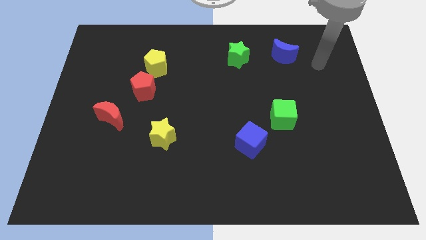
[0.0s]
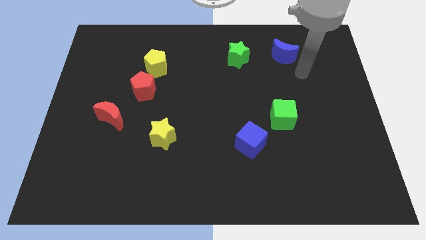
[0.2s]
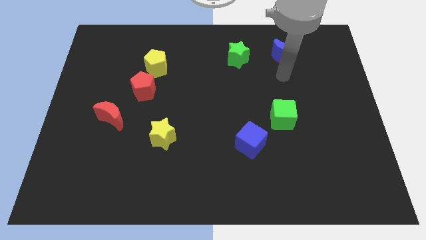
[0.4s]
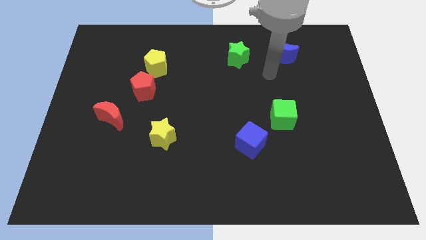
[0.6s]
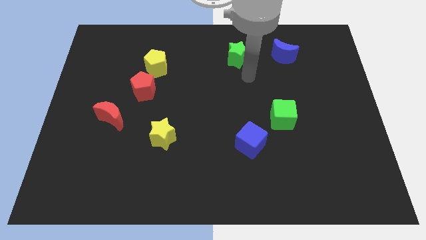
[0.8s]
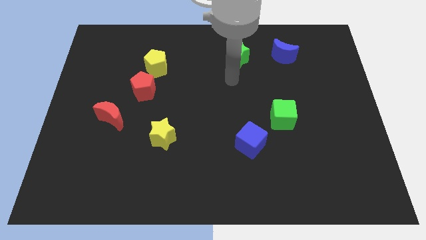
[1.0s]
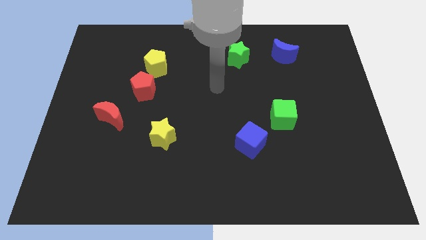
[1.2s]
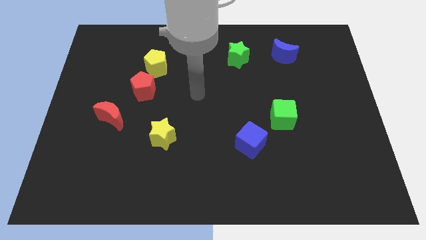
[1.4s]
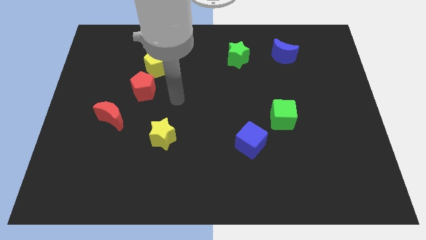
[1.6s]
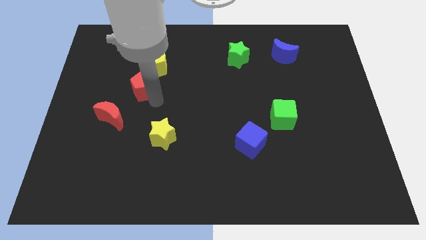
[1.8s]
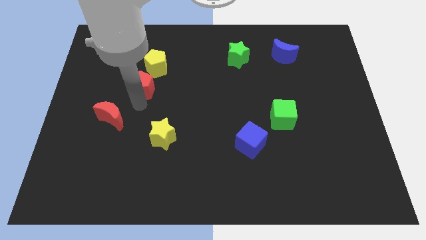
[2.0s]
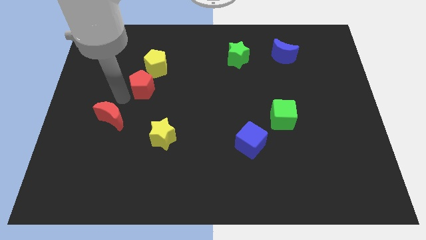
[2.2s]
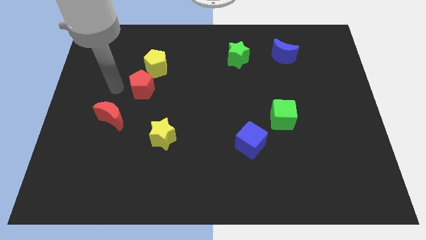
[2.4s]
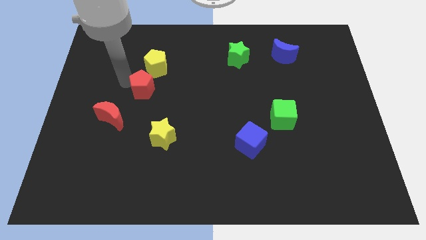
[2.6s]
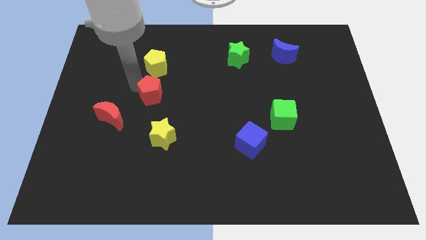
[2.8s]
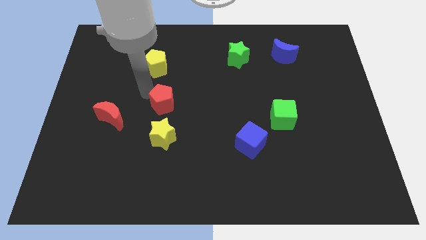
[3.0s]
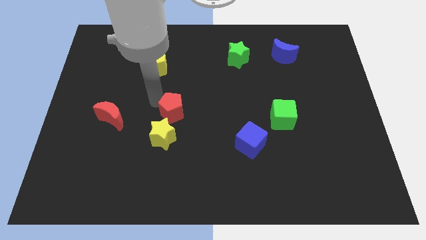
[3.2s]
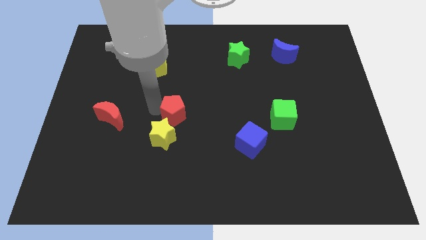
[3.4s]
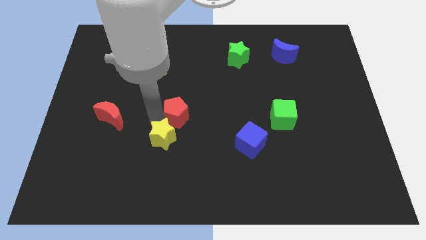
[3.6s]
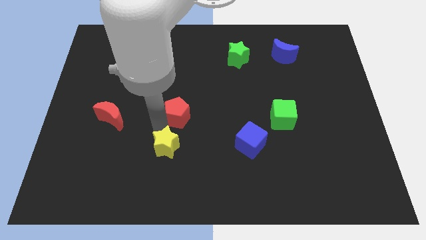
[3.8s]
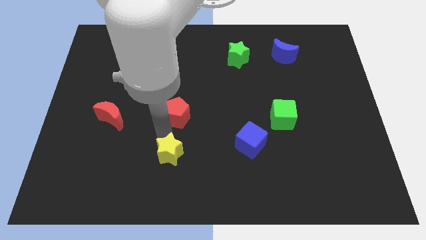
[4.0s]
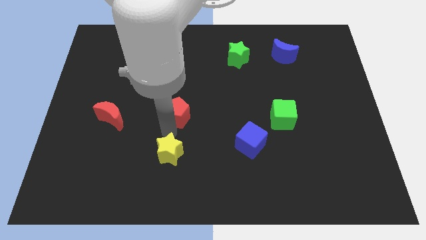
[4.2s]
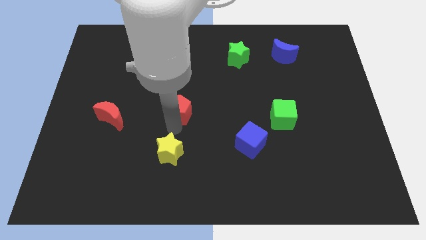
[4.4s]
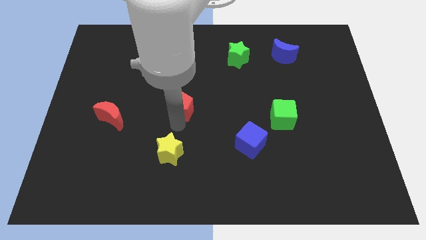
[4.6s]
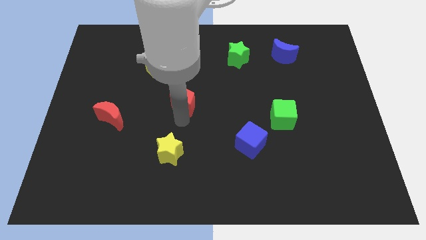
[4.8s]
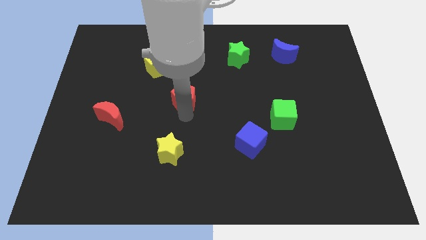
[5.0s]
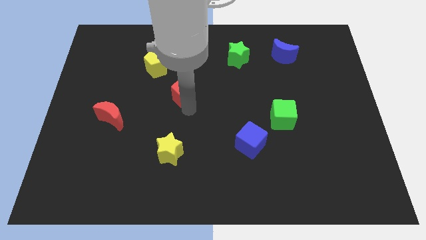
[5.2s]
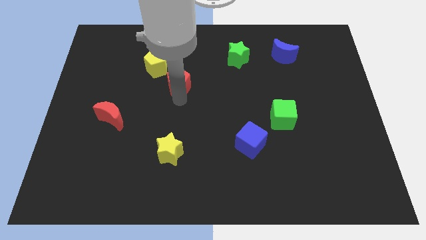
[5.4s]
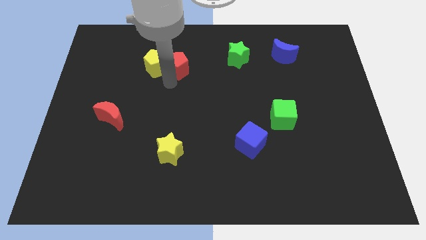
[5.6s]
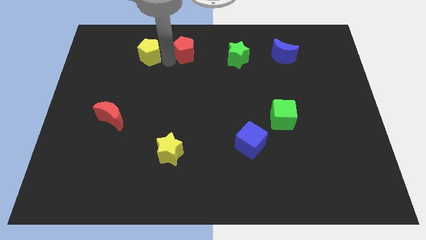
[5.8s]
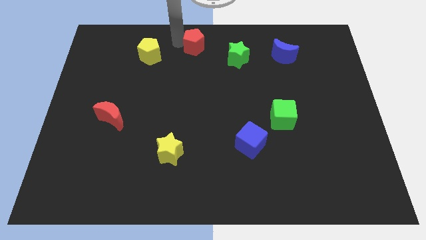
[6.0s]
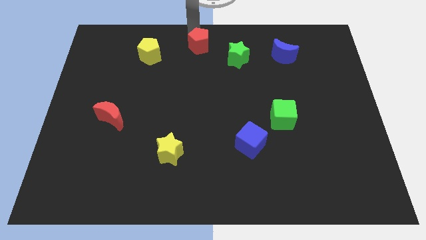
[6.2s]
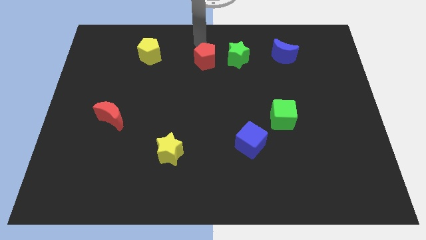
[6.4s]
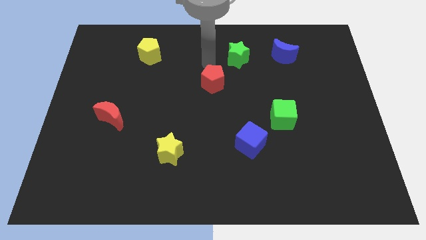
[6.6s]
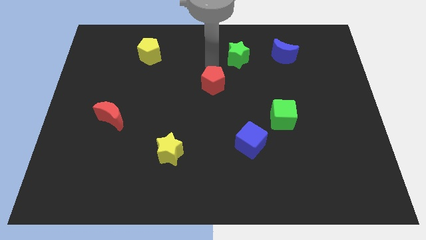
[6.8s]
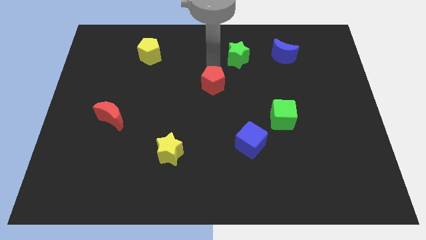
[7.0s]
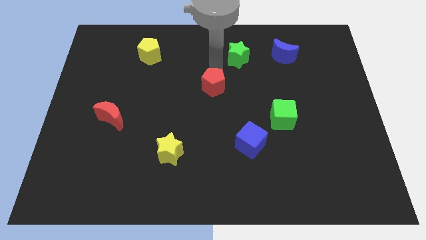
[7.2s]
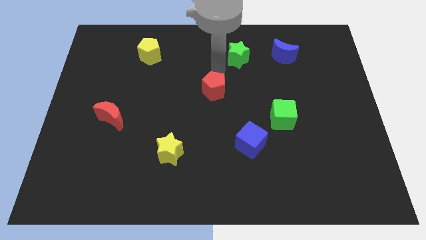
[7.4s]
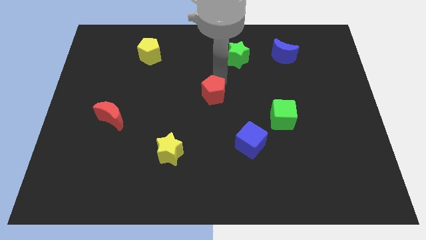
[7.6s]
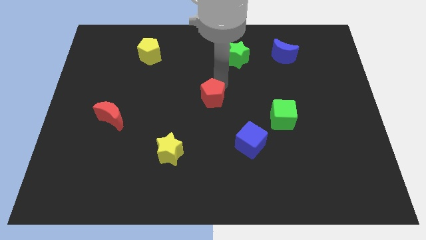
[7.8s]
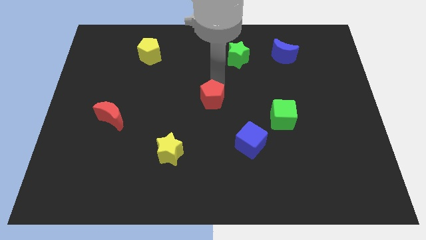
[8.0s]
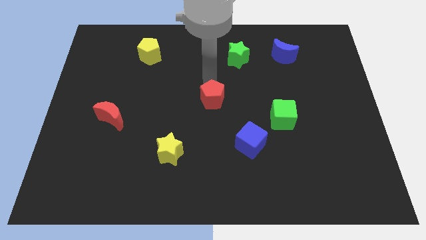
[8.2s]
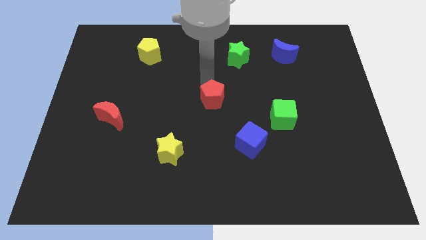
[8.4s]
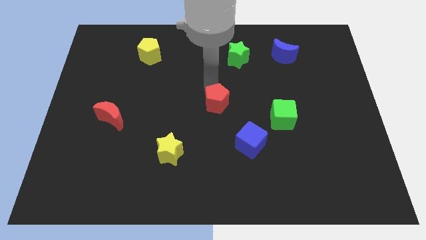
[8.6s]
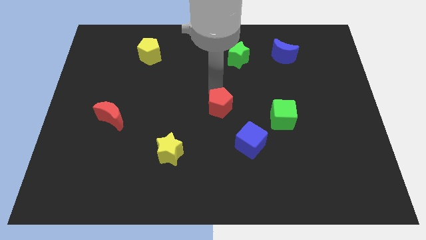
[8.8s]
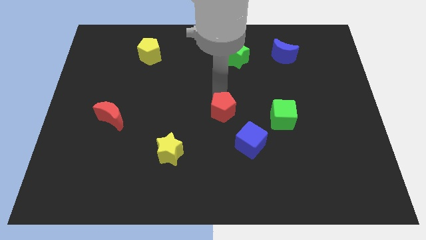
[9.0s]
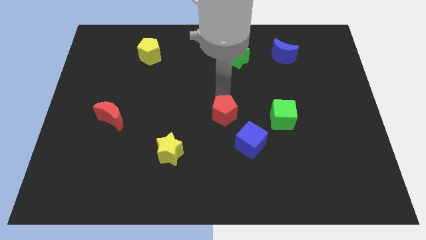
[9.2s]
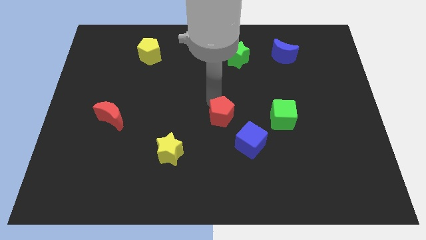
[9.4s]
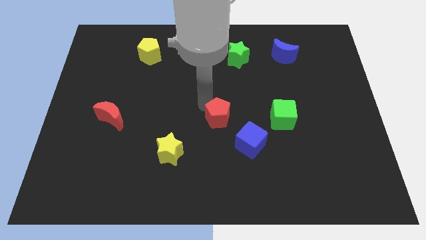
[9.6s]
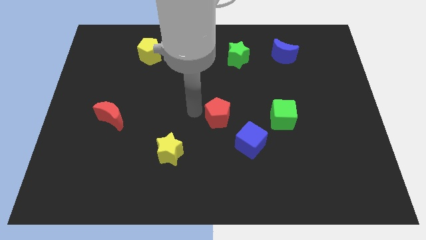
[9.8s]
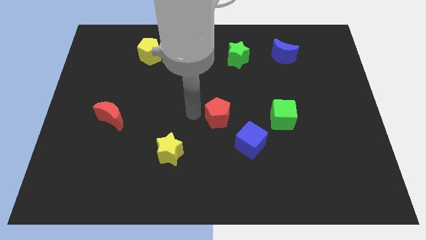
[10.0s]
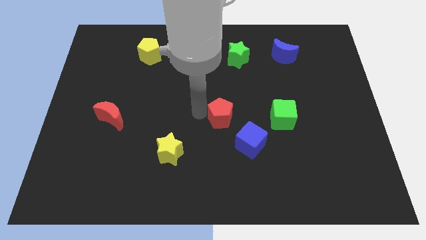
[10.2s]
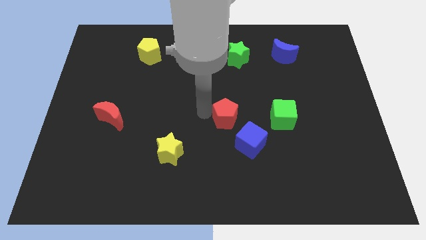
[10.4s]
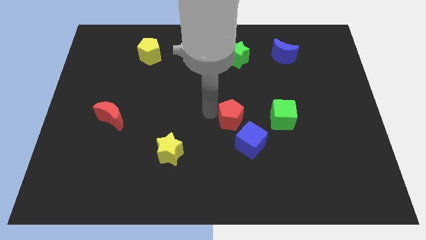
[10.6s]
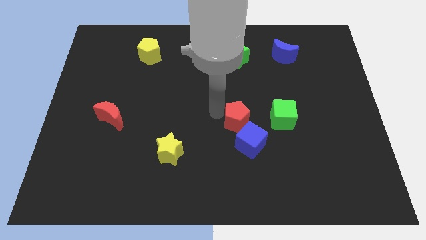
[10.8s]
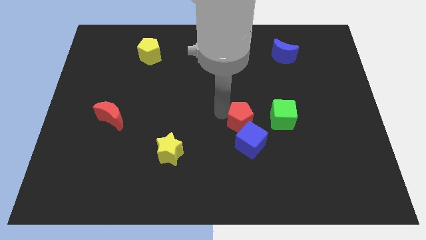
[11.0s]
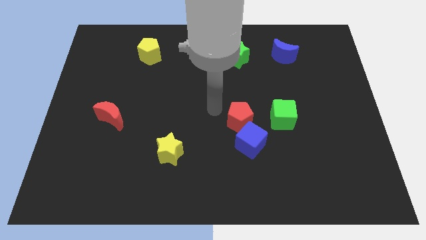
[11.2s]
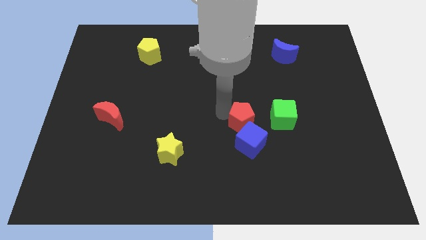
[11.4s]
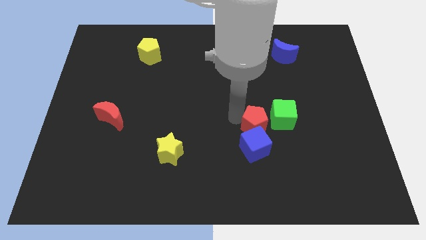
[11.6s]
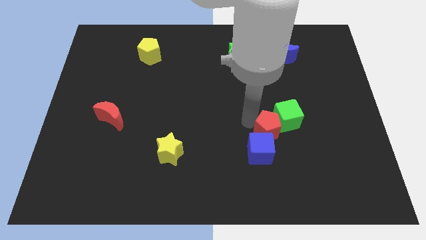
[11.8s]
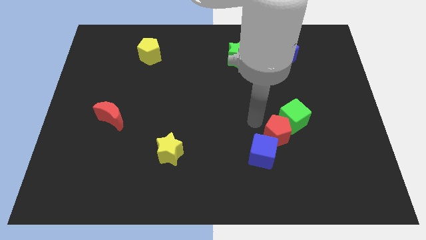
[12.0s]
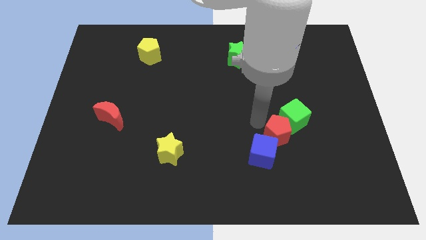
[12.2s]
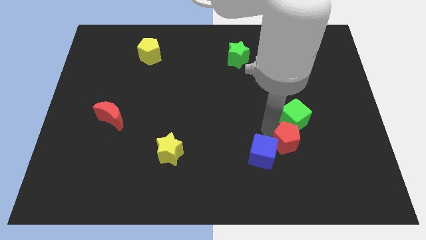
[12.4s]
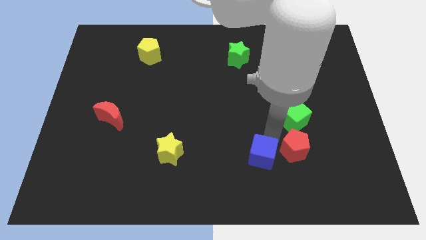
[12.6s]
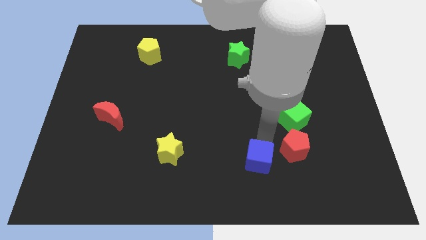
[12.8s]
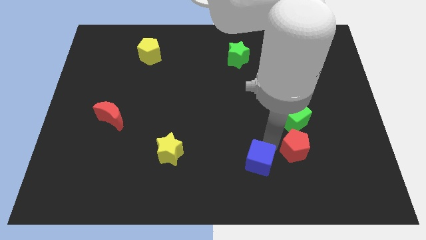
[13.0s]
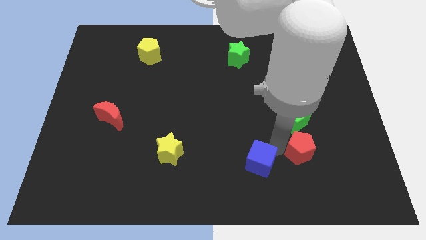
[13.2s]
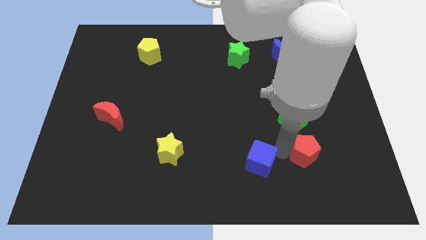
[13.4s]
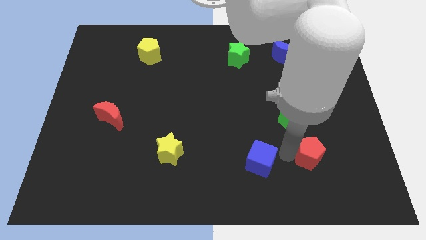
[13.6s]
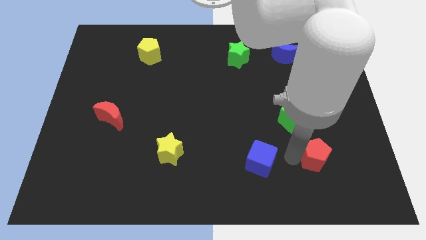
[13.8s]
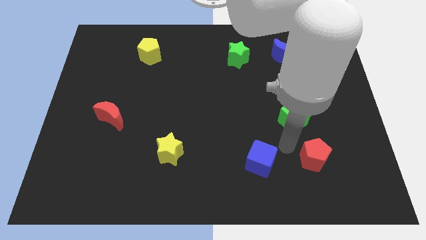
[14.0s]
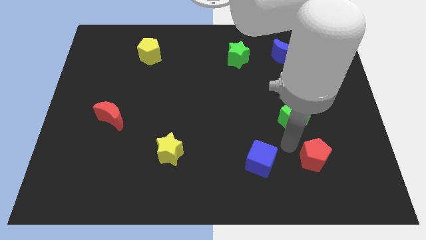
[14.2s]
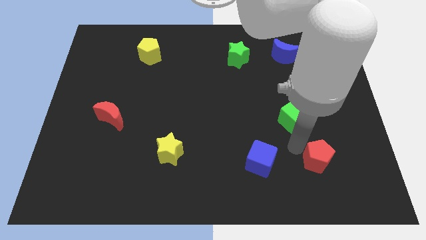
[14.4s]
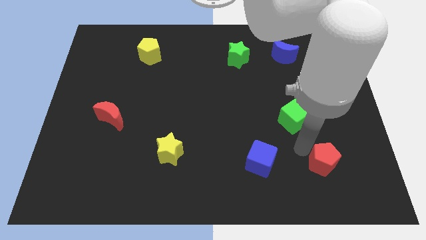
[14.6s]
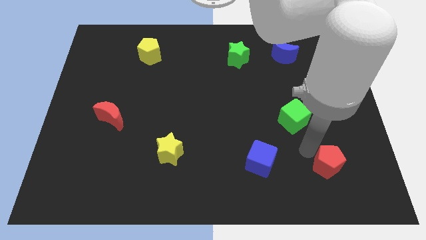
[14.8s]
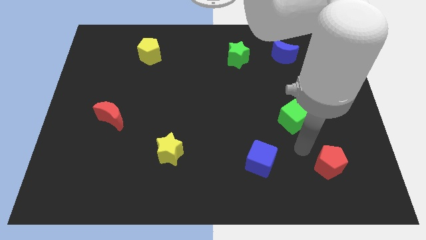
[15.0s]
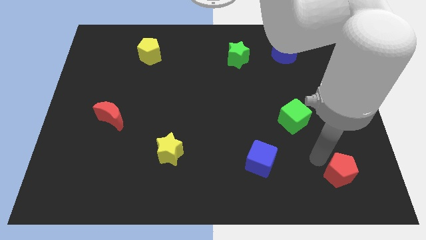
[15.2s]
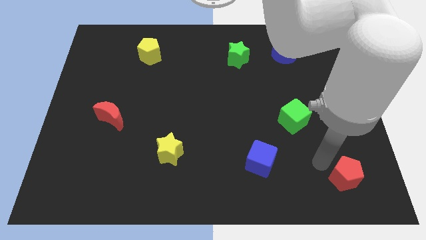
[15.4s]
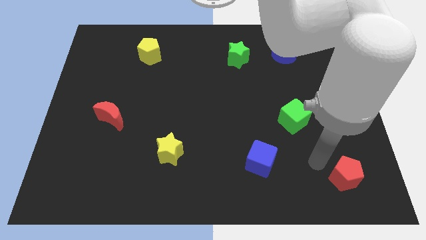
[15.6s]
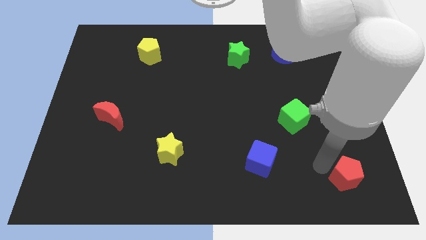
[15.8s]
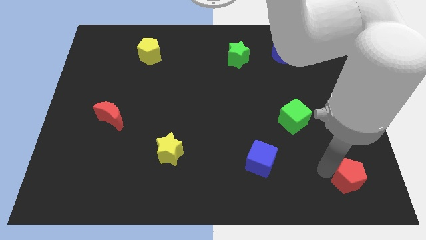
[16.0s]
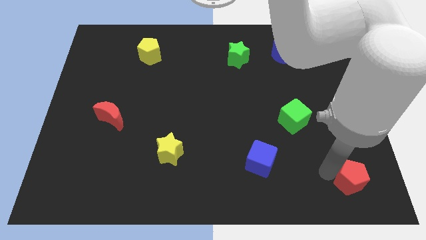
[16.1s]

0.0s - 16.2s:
slide the red pentagon to the bottom right of the board
